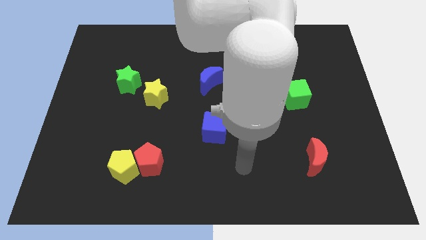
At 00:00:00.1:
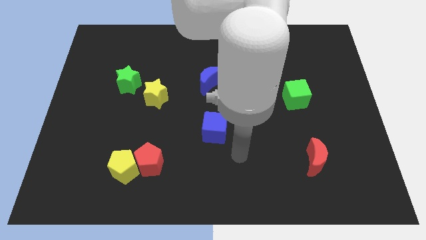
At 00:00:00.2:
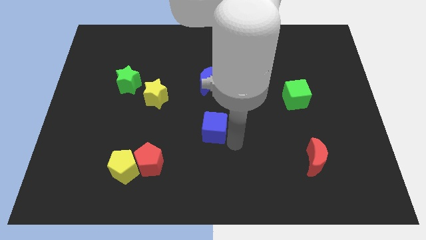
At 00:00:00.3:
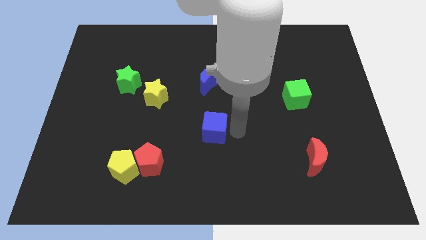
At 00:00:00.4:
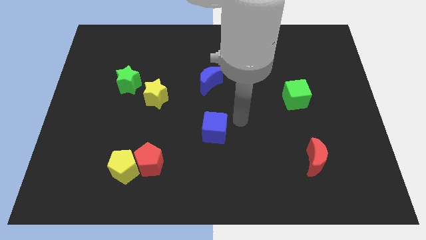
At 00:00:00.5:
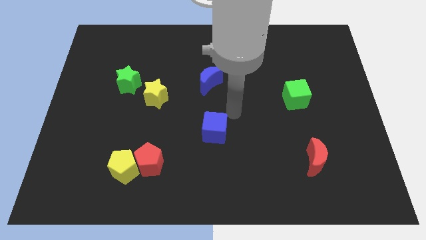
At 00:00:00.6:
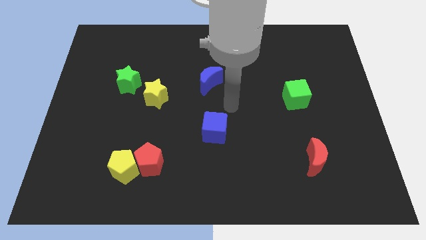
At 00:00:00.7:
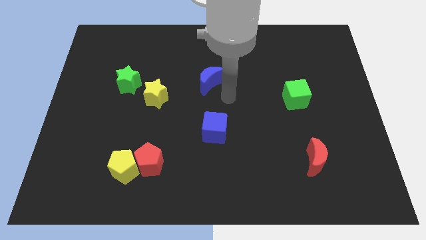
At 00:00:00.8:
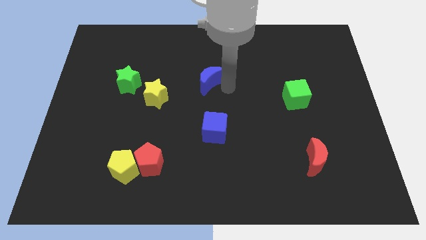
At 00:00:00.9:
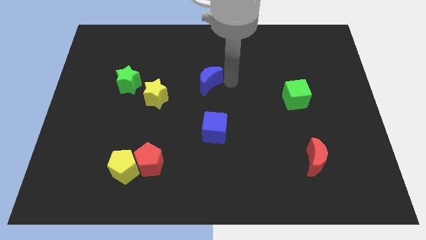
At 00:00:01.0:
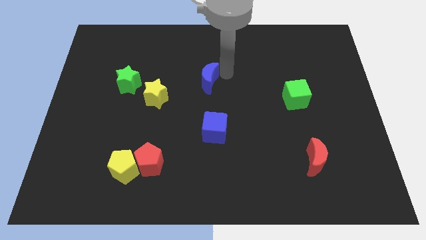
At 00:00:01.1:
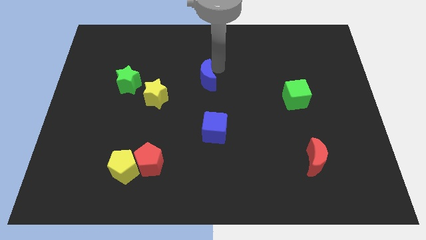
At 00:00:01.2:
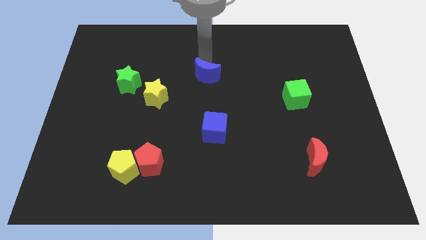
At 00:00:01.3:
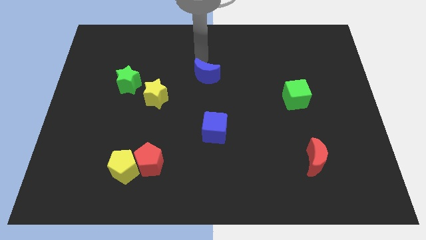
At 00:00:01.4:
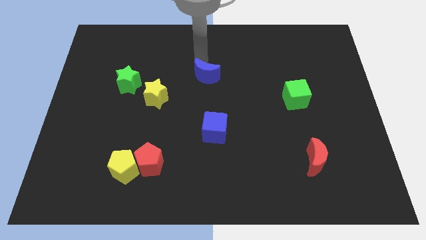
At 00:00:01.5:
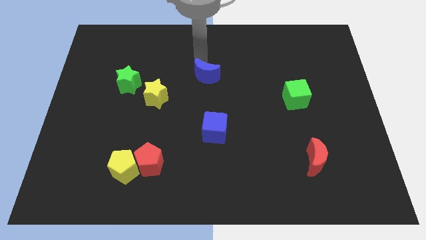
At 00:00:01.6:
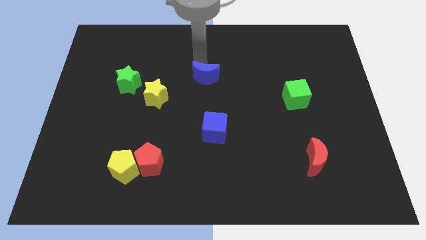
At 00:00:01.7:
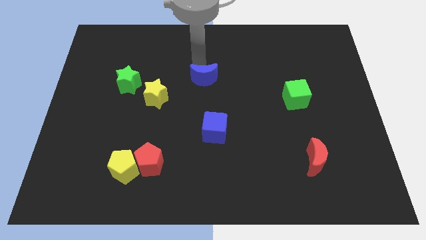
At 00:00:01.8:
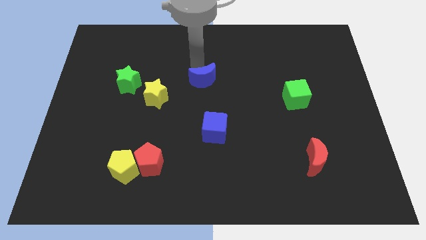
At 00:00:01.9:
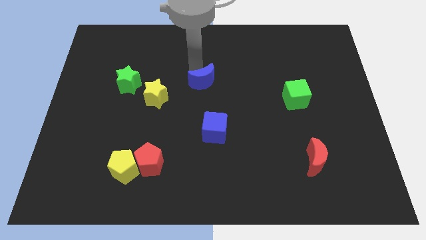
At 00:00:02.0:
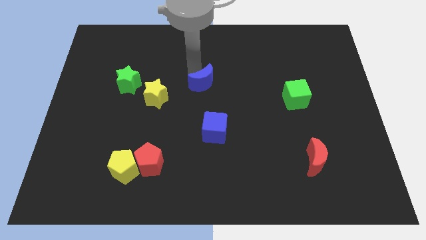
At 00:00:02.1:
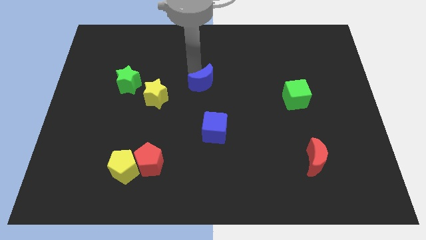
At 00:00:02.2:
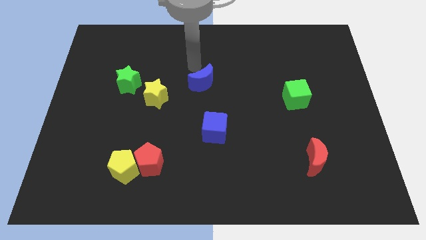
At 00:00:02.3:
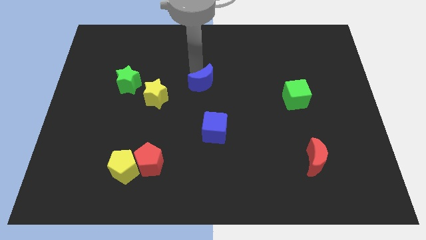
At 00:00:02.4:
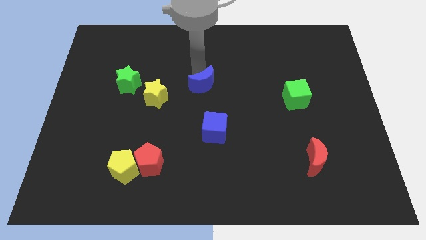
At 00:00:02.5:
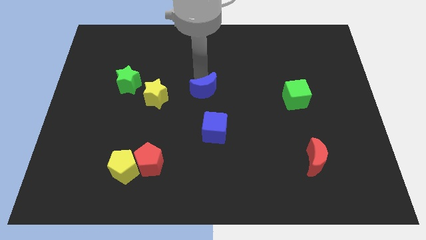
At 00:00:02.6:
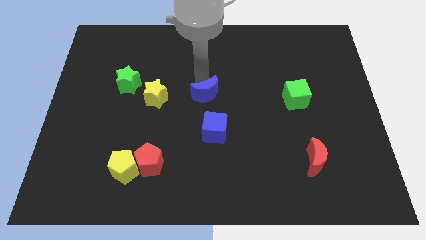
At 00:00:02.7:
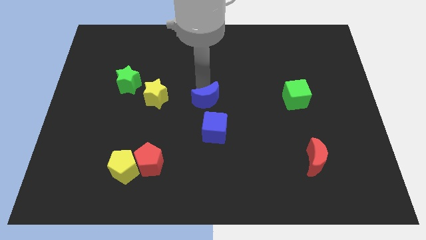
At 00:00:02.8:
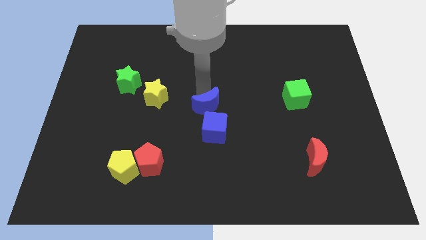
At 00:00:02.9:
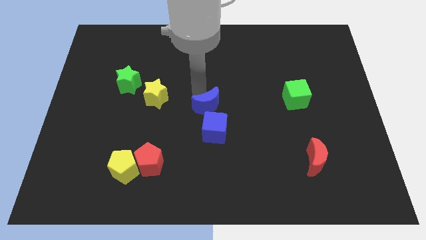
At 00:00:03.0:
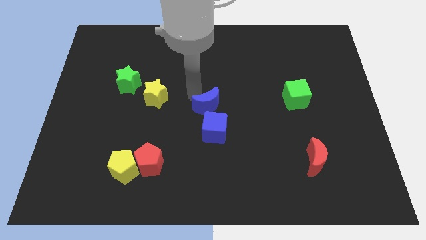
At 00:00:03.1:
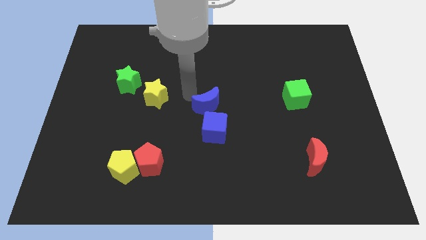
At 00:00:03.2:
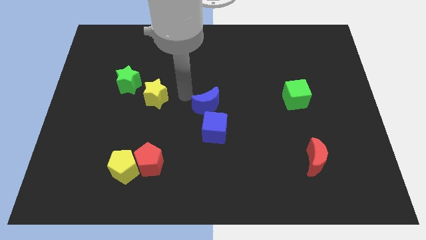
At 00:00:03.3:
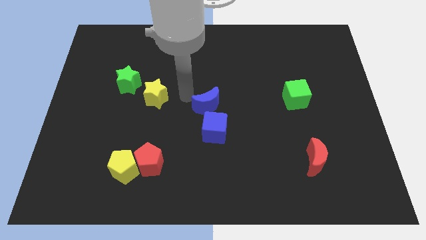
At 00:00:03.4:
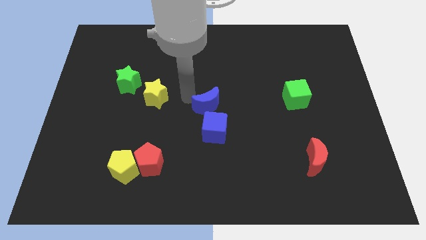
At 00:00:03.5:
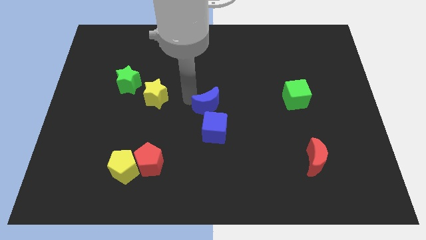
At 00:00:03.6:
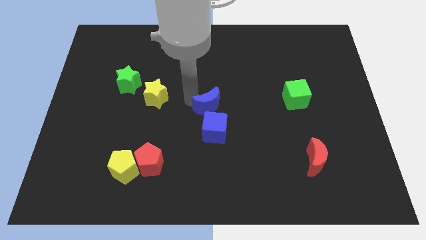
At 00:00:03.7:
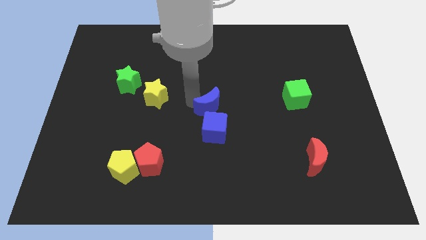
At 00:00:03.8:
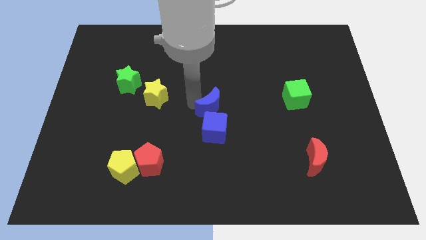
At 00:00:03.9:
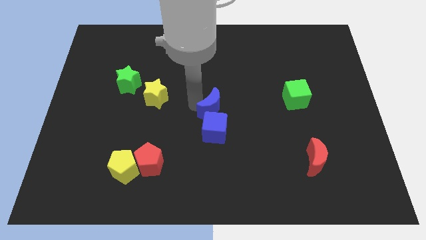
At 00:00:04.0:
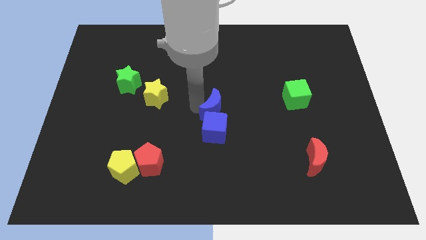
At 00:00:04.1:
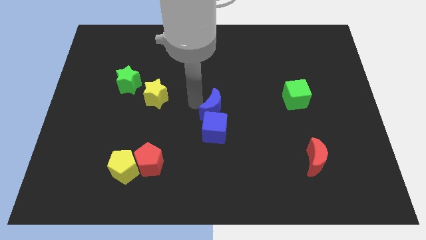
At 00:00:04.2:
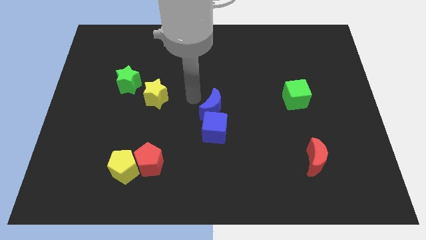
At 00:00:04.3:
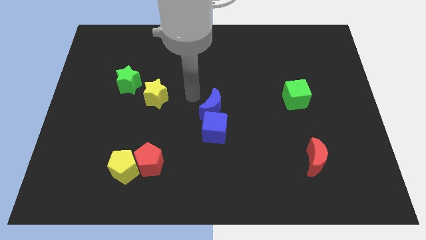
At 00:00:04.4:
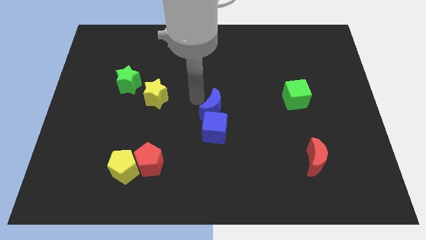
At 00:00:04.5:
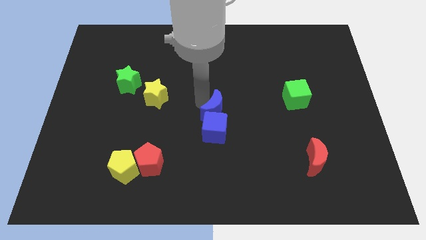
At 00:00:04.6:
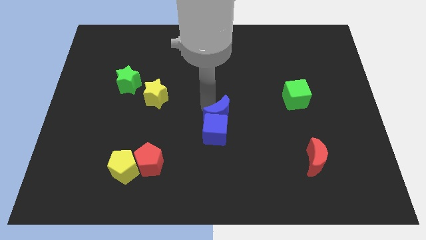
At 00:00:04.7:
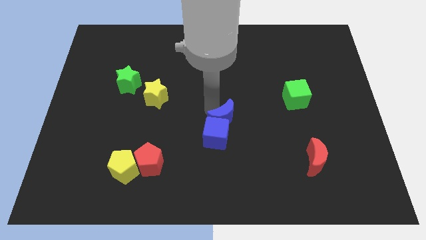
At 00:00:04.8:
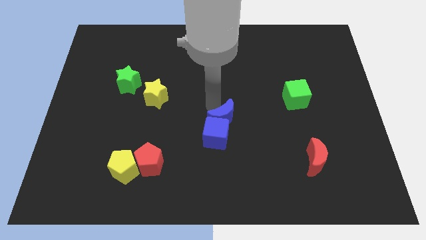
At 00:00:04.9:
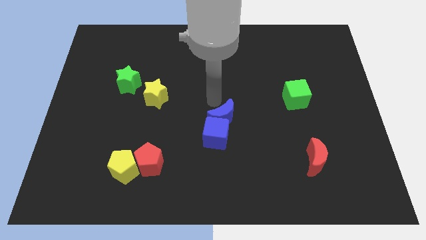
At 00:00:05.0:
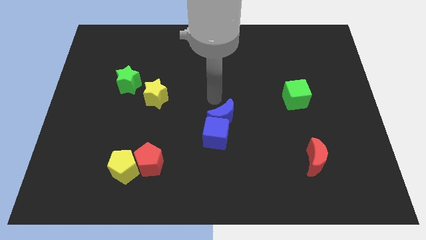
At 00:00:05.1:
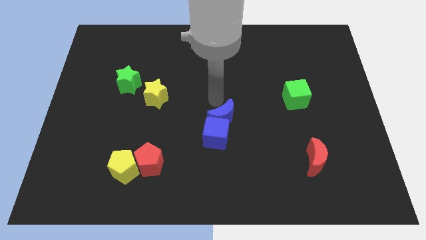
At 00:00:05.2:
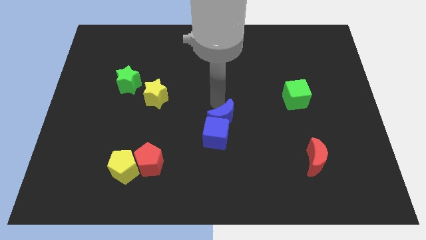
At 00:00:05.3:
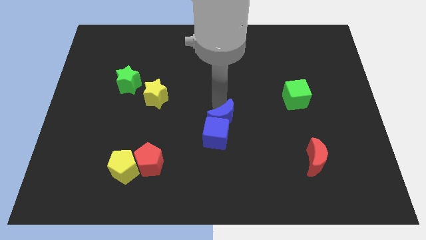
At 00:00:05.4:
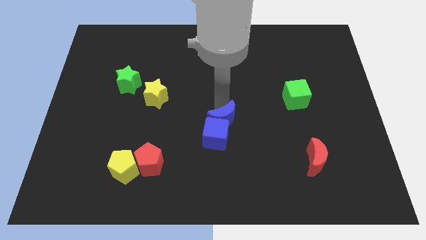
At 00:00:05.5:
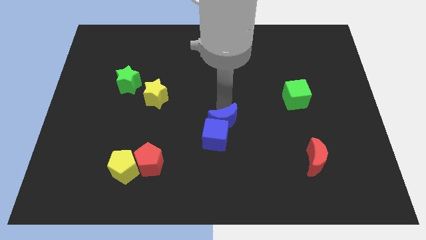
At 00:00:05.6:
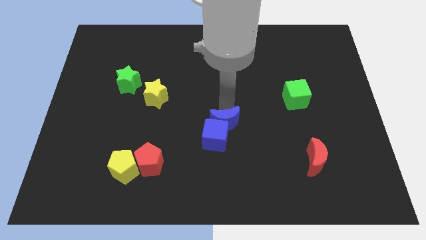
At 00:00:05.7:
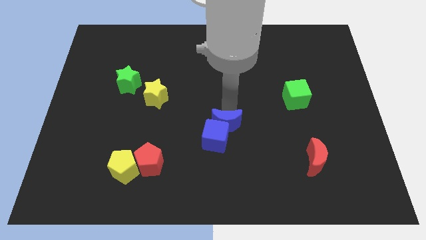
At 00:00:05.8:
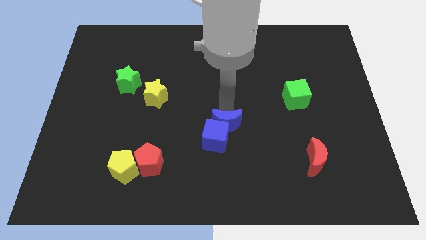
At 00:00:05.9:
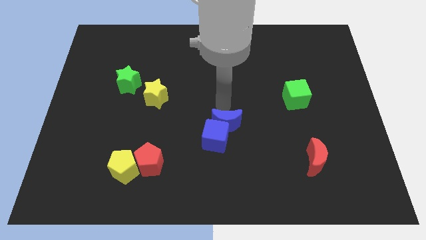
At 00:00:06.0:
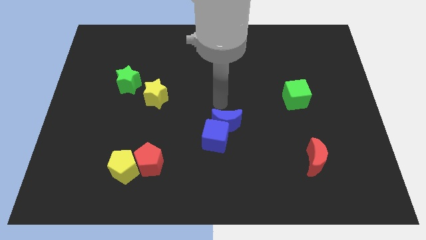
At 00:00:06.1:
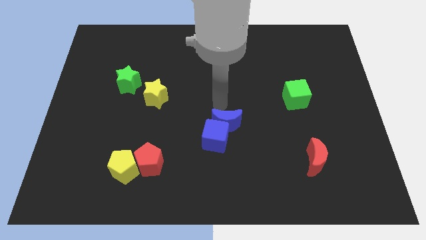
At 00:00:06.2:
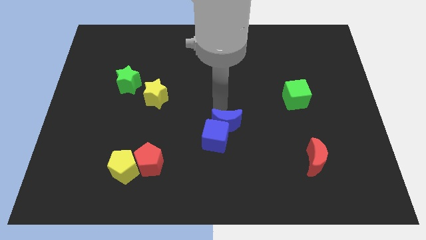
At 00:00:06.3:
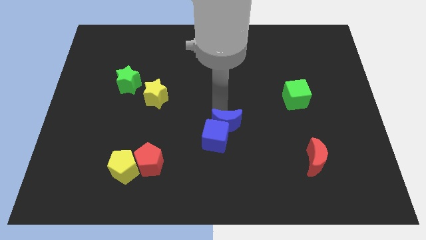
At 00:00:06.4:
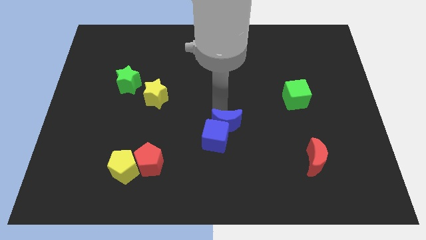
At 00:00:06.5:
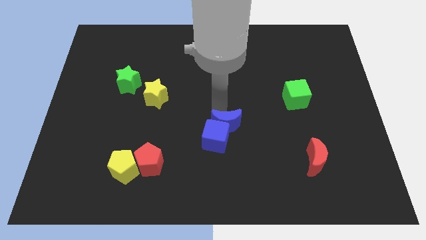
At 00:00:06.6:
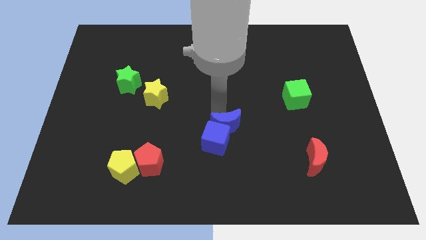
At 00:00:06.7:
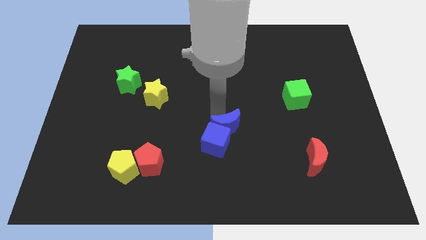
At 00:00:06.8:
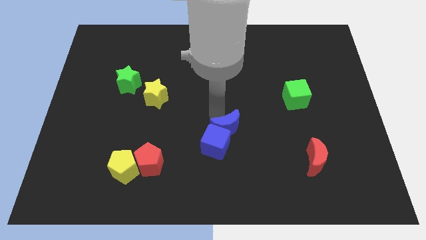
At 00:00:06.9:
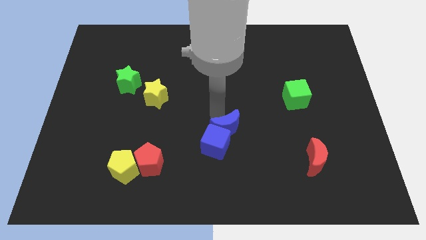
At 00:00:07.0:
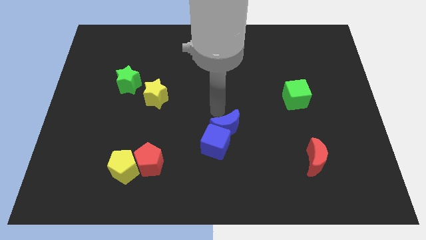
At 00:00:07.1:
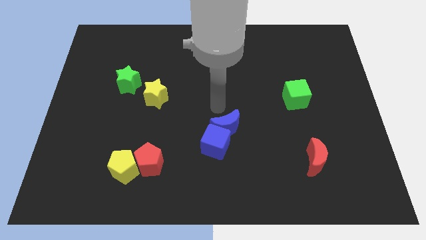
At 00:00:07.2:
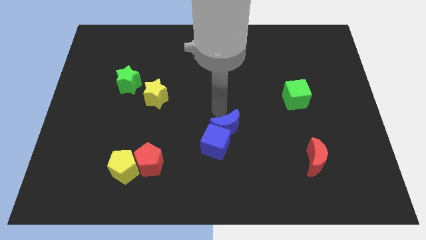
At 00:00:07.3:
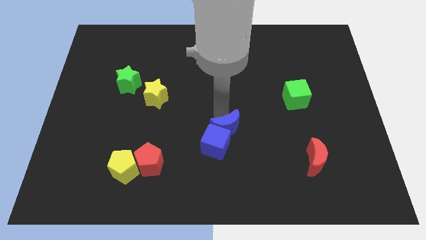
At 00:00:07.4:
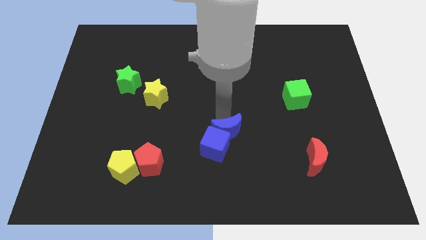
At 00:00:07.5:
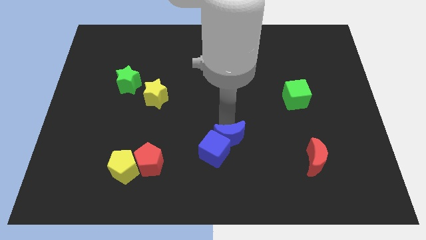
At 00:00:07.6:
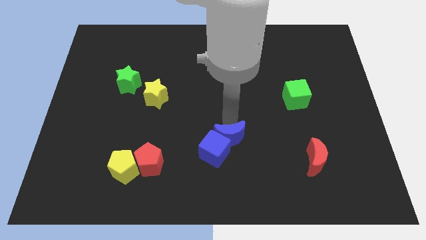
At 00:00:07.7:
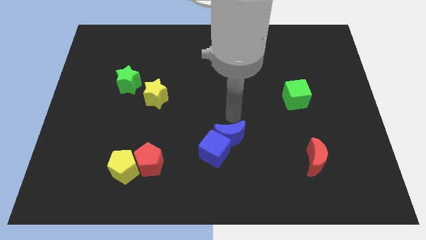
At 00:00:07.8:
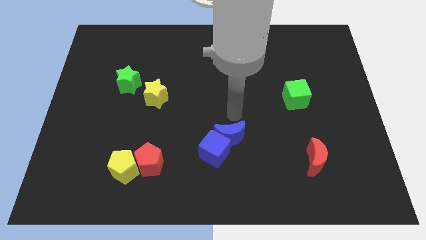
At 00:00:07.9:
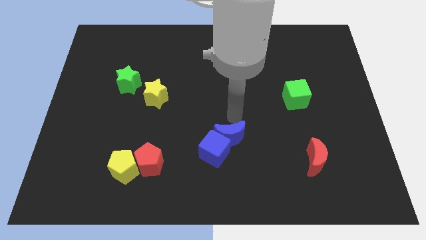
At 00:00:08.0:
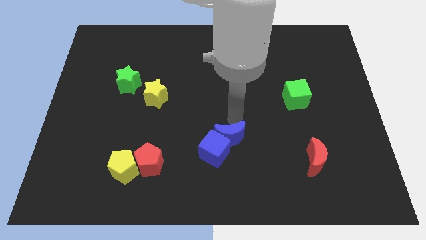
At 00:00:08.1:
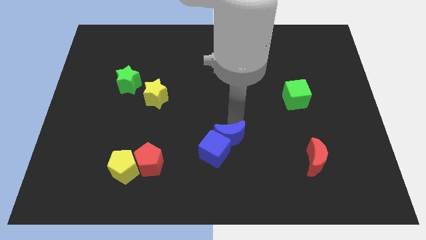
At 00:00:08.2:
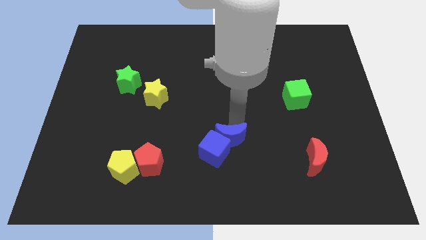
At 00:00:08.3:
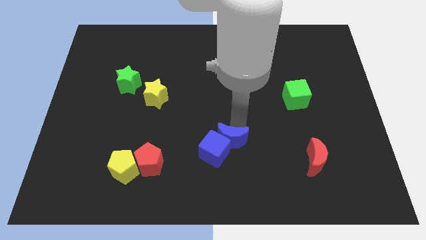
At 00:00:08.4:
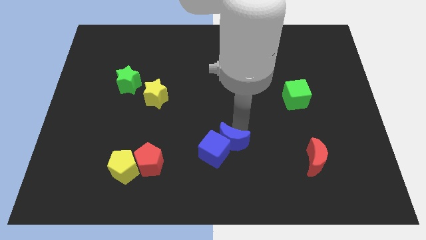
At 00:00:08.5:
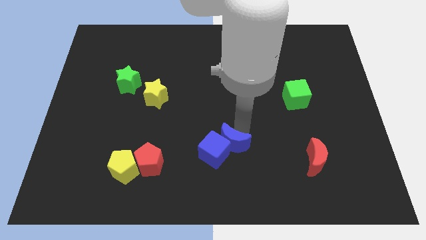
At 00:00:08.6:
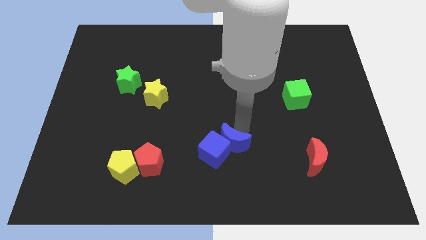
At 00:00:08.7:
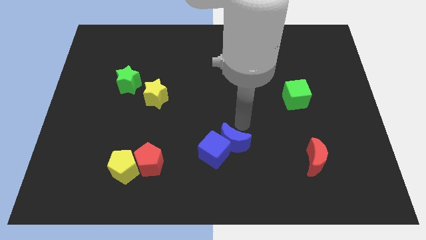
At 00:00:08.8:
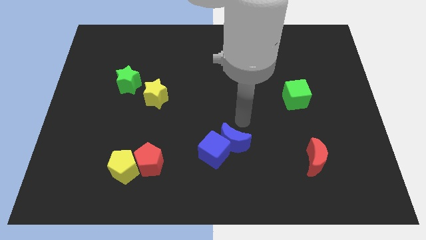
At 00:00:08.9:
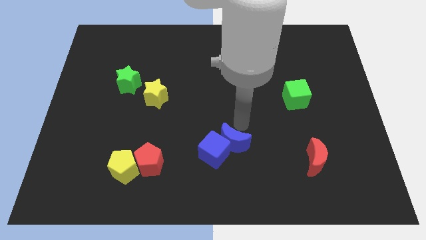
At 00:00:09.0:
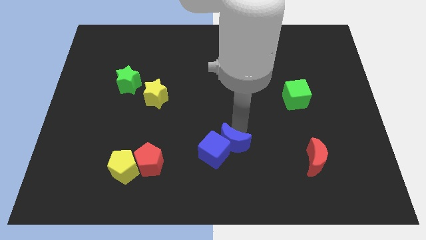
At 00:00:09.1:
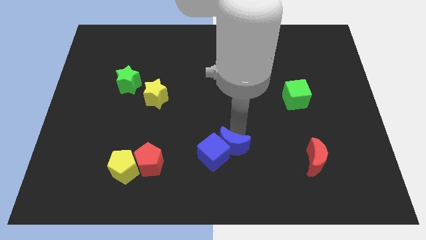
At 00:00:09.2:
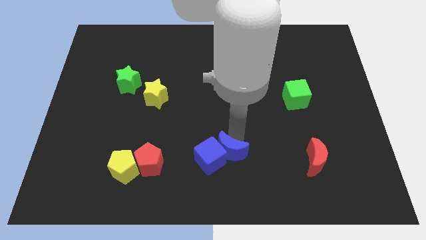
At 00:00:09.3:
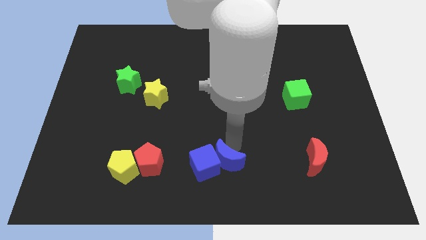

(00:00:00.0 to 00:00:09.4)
move the blue moon to the bottom side
